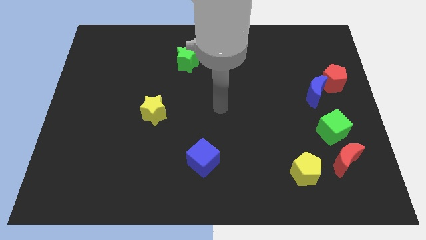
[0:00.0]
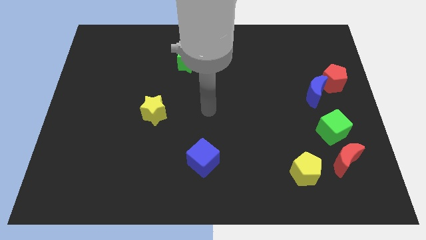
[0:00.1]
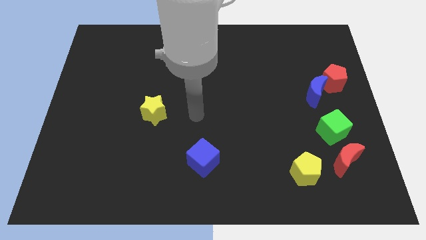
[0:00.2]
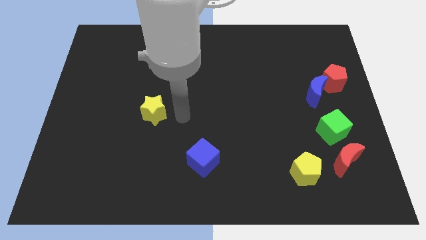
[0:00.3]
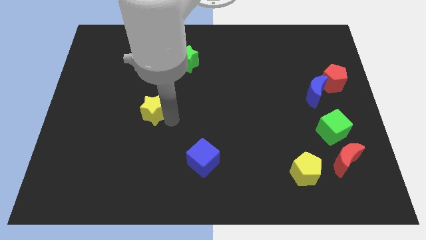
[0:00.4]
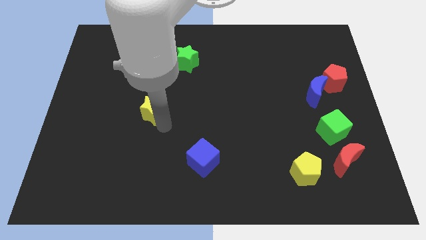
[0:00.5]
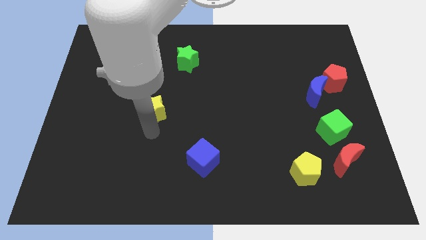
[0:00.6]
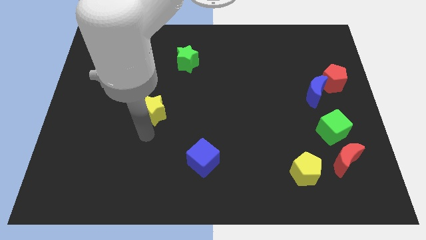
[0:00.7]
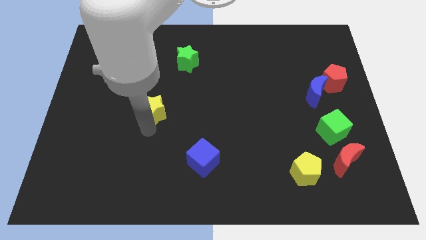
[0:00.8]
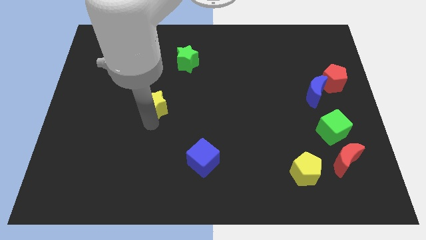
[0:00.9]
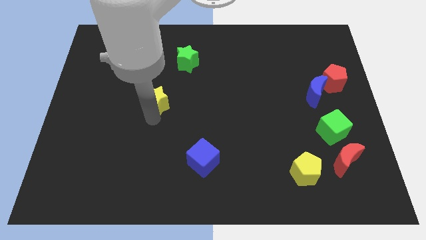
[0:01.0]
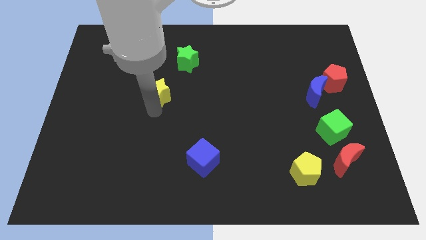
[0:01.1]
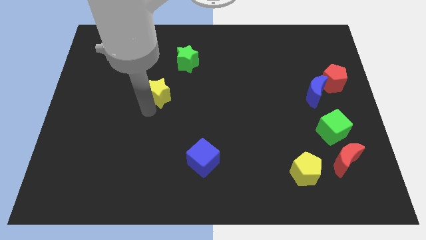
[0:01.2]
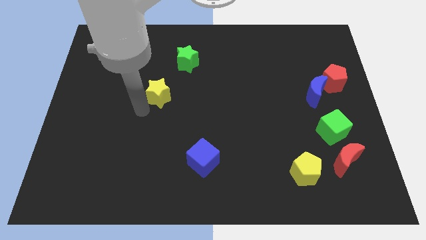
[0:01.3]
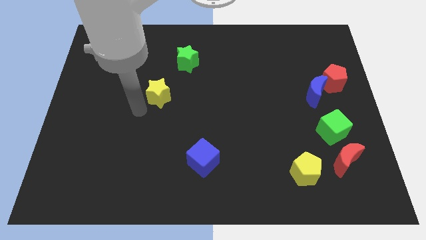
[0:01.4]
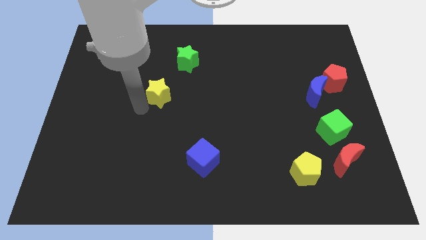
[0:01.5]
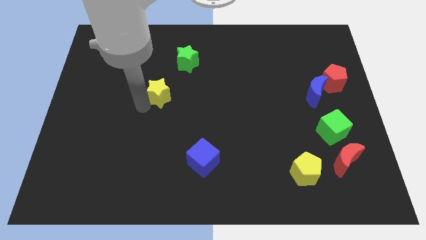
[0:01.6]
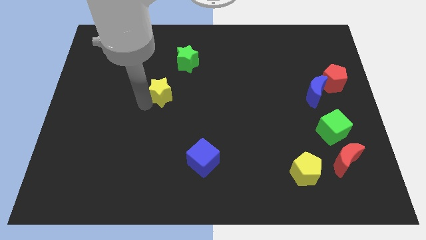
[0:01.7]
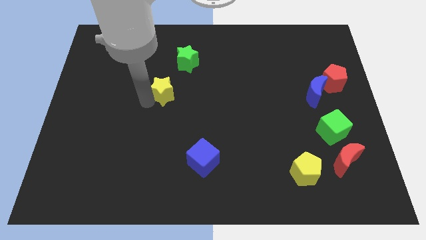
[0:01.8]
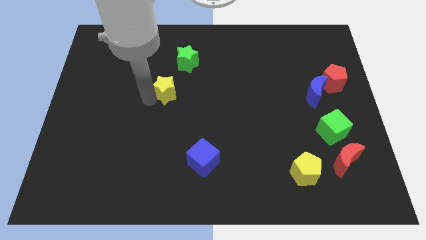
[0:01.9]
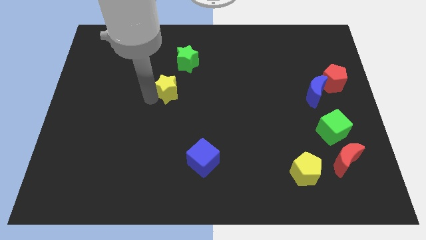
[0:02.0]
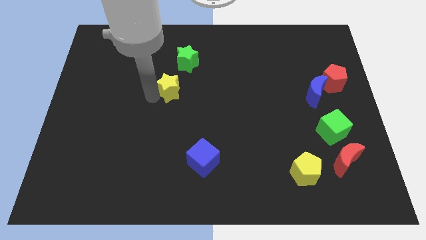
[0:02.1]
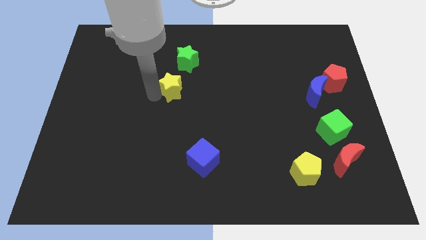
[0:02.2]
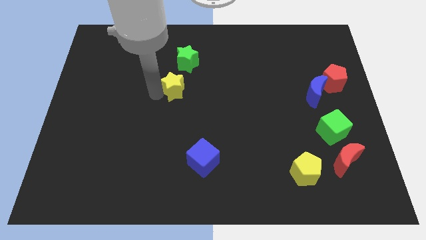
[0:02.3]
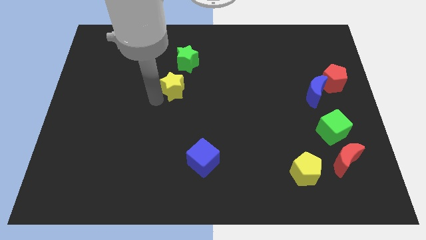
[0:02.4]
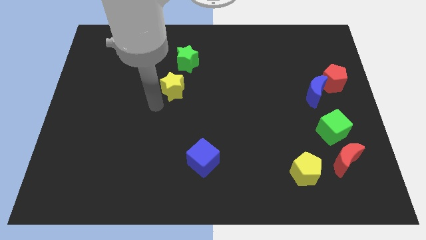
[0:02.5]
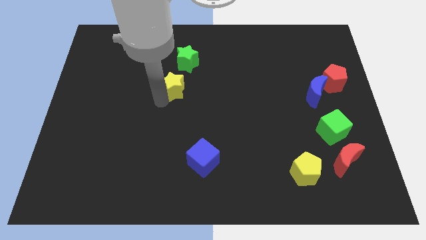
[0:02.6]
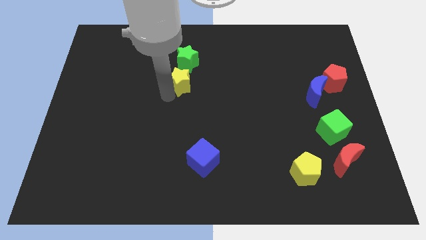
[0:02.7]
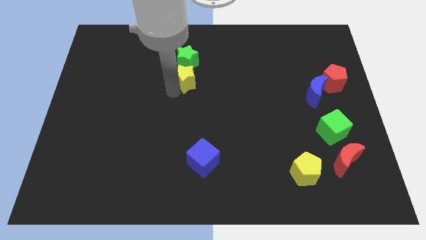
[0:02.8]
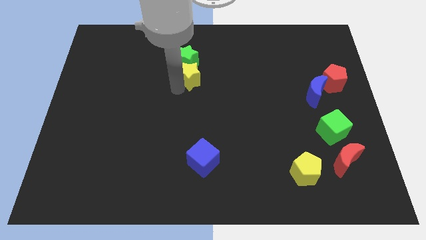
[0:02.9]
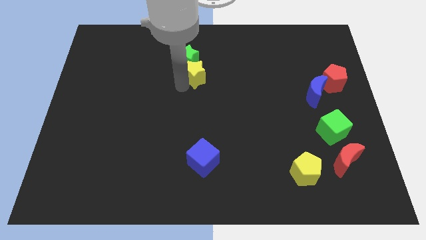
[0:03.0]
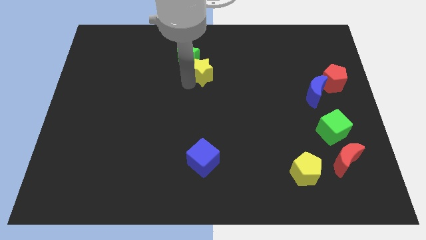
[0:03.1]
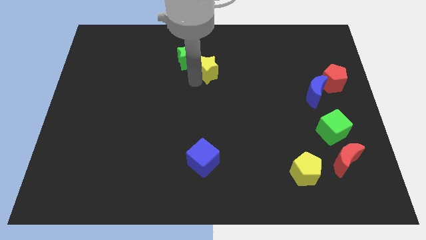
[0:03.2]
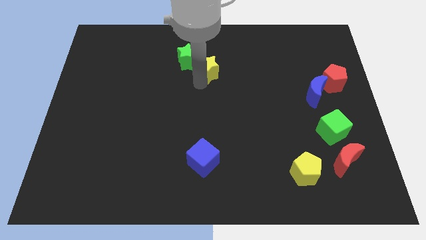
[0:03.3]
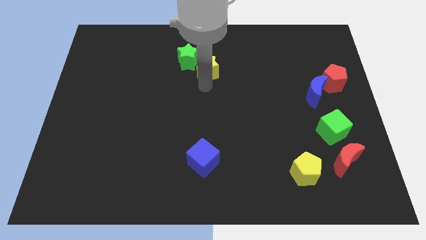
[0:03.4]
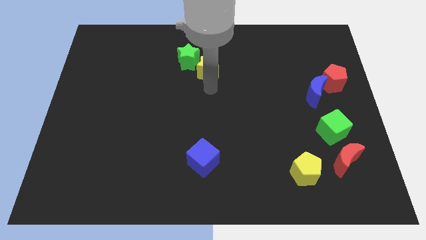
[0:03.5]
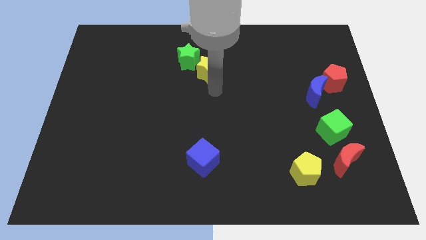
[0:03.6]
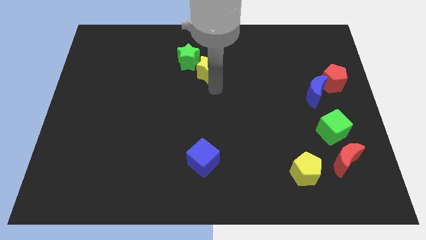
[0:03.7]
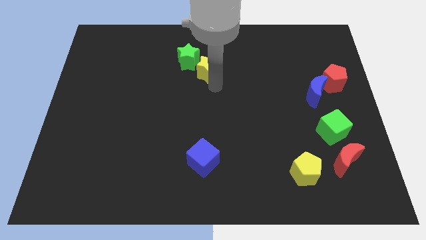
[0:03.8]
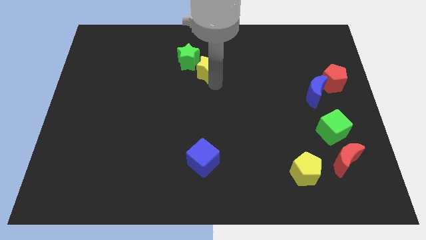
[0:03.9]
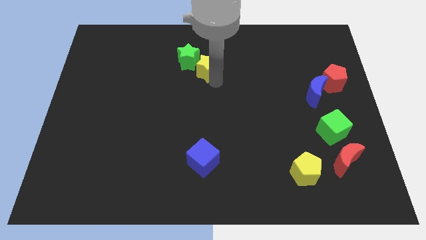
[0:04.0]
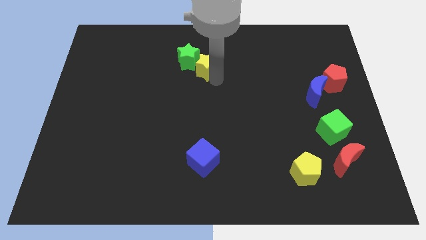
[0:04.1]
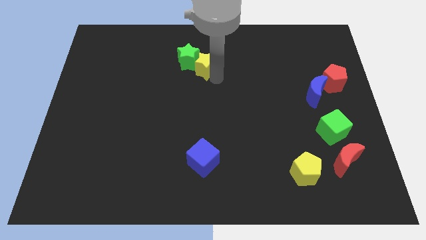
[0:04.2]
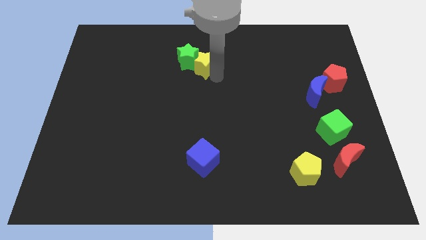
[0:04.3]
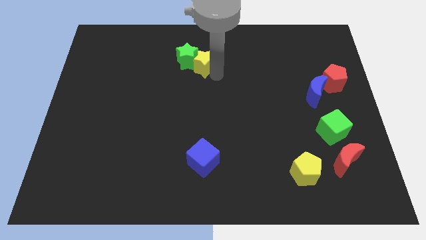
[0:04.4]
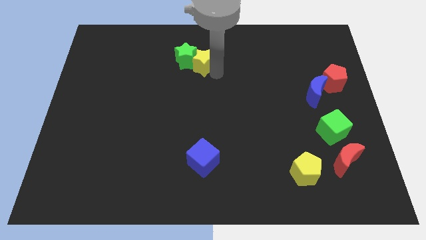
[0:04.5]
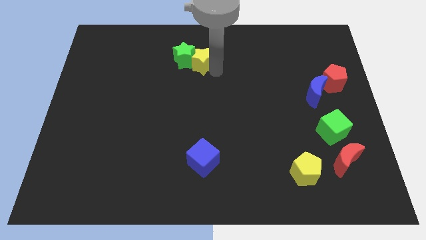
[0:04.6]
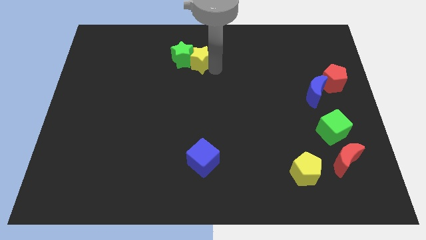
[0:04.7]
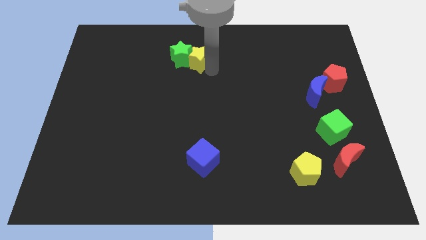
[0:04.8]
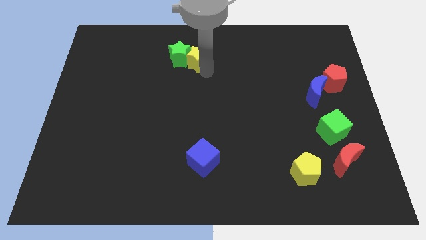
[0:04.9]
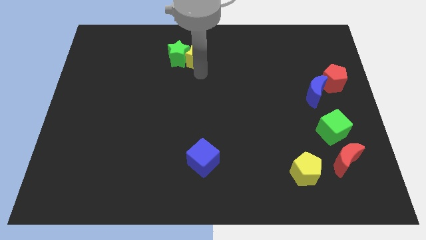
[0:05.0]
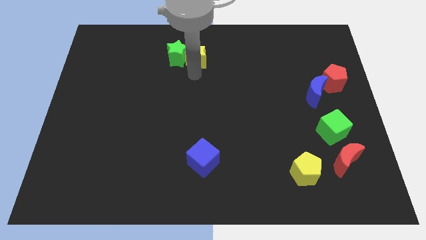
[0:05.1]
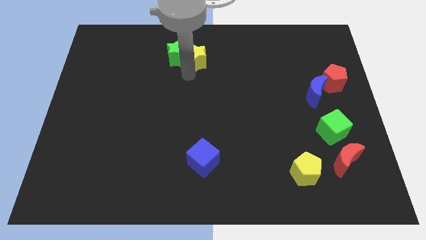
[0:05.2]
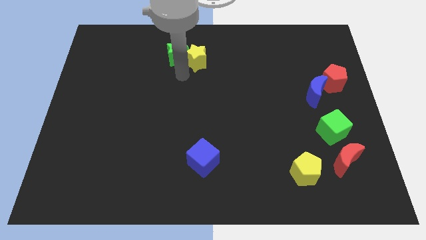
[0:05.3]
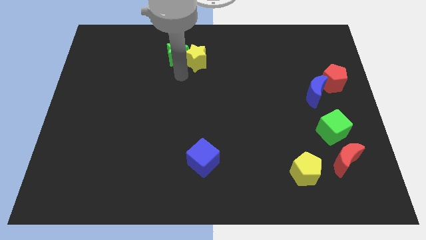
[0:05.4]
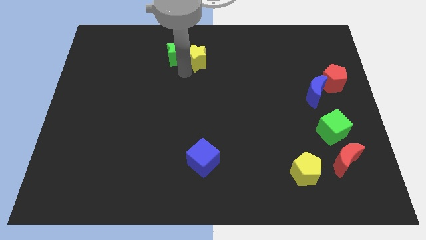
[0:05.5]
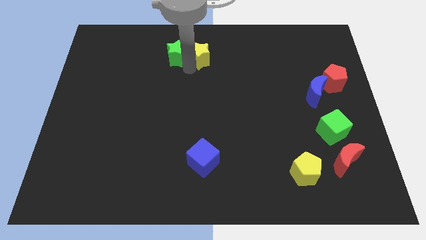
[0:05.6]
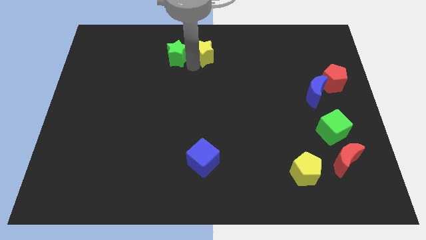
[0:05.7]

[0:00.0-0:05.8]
move the yellow star to the towards your base

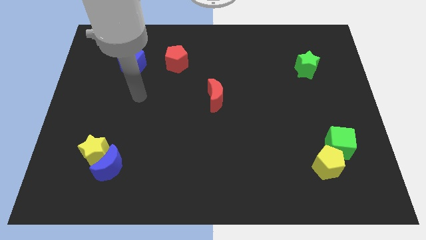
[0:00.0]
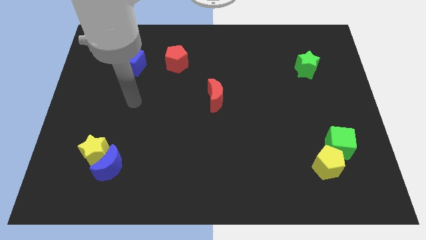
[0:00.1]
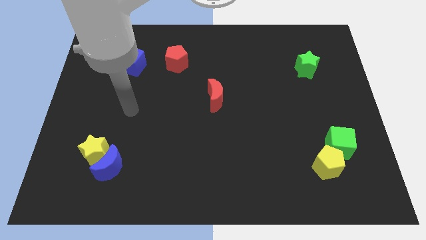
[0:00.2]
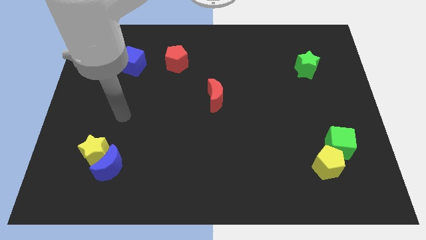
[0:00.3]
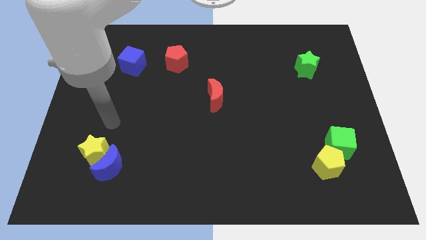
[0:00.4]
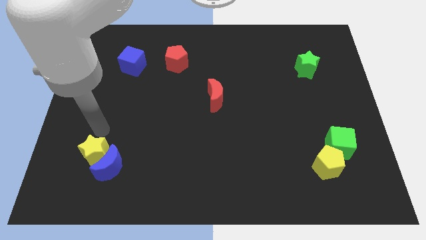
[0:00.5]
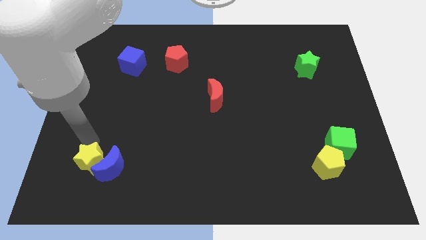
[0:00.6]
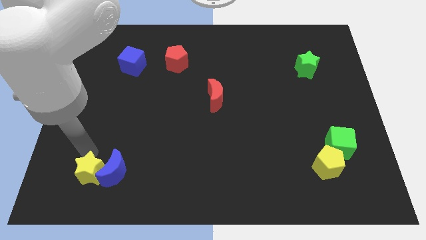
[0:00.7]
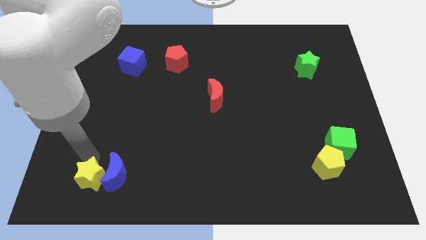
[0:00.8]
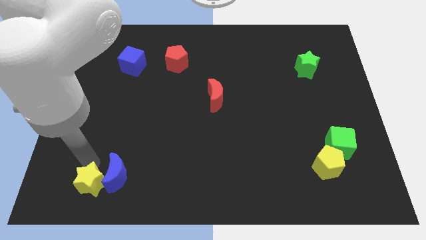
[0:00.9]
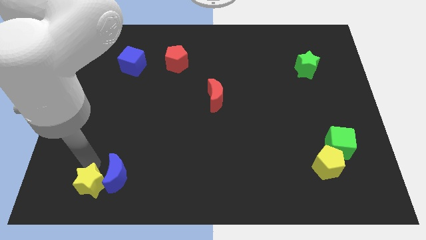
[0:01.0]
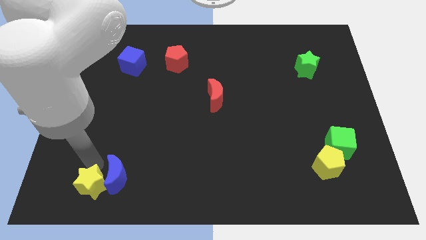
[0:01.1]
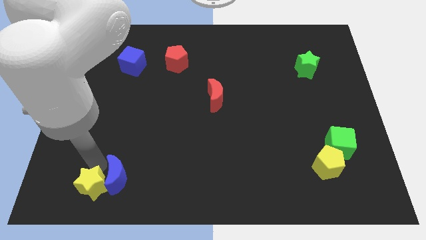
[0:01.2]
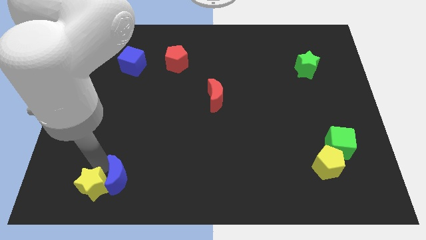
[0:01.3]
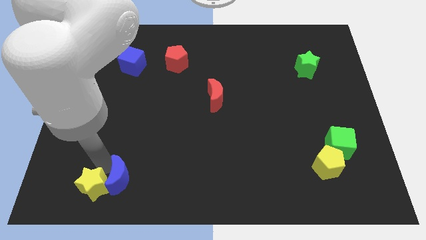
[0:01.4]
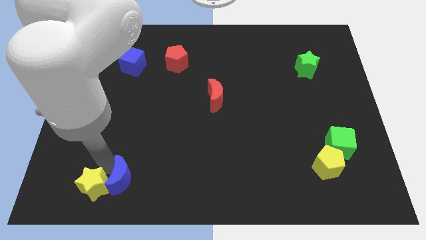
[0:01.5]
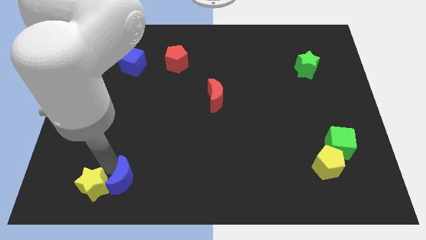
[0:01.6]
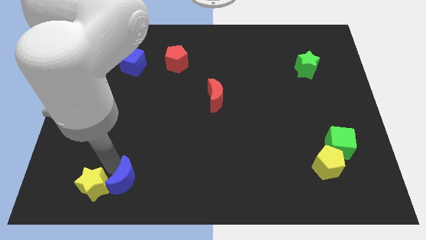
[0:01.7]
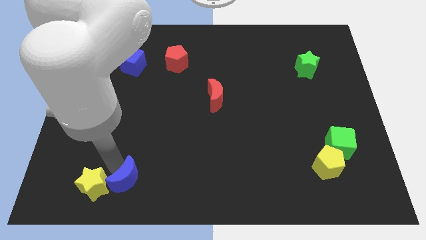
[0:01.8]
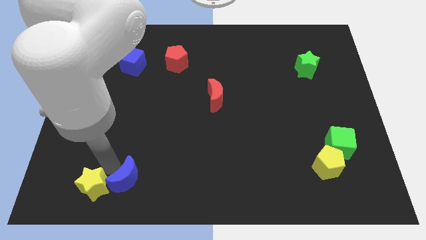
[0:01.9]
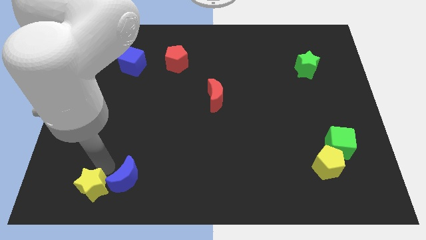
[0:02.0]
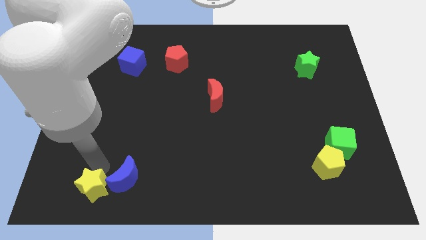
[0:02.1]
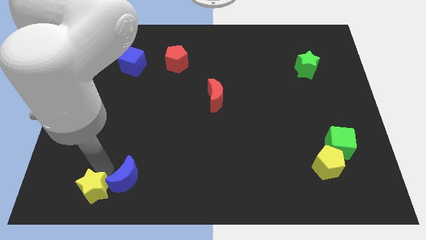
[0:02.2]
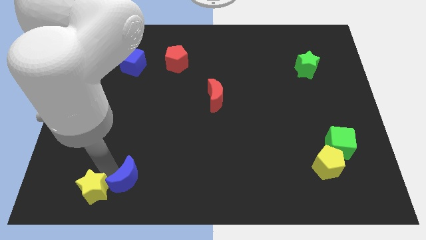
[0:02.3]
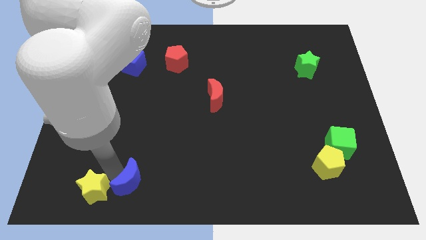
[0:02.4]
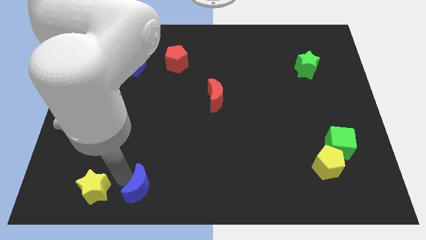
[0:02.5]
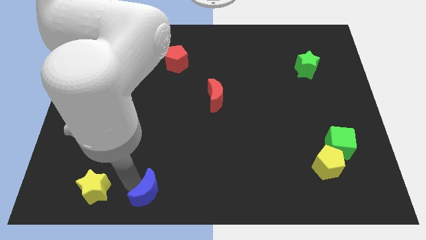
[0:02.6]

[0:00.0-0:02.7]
put the blue moon to the bottom
